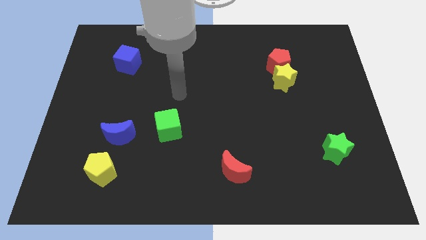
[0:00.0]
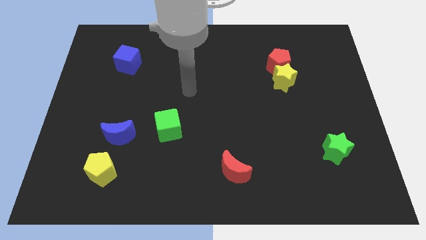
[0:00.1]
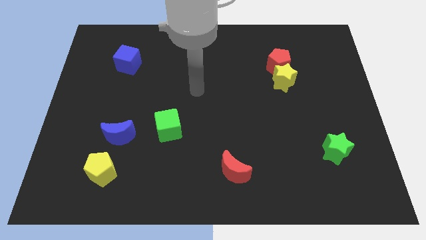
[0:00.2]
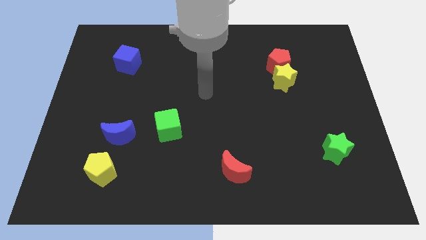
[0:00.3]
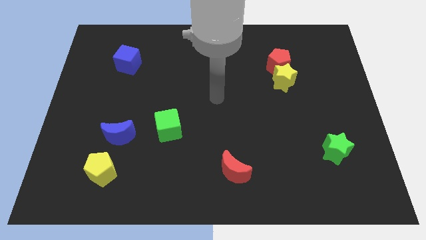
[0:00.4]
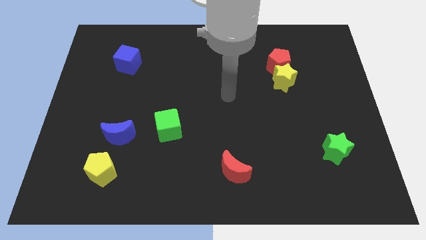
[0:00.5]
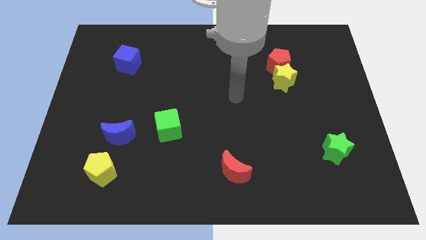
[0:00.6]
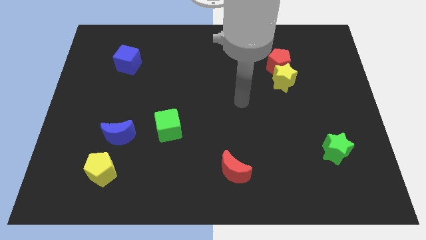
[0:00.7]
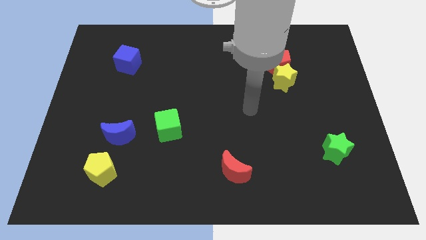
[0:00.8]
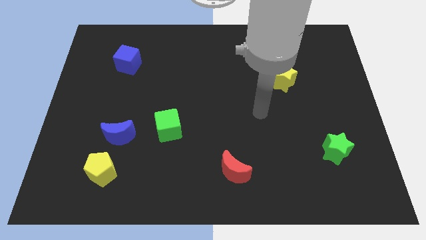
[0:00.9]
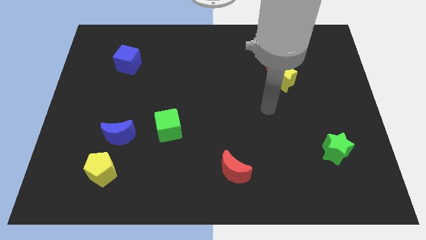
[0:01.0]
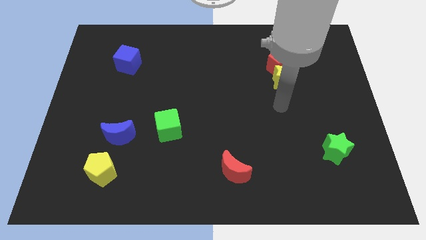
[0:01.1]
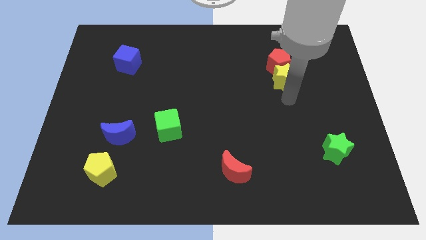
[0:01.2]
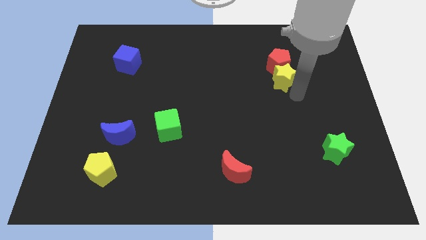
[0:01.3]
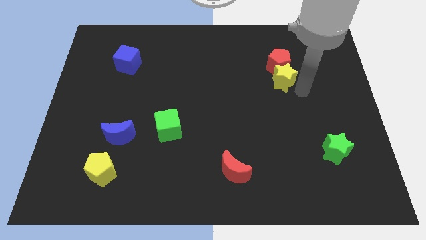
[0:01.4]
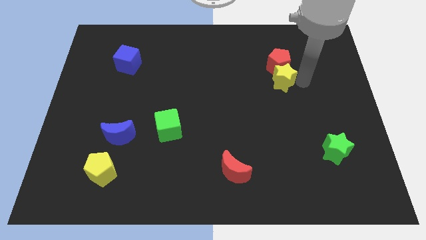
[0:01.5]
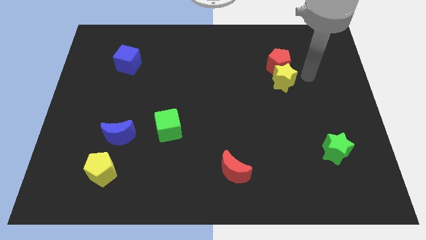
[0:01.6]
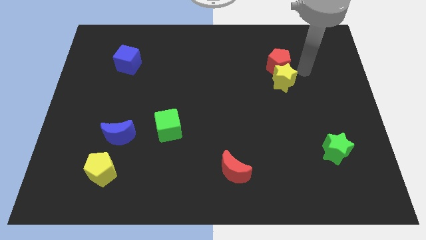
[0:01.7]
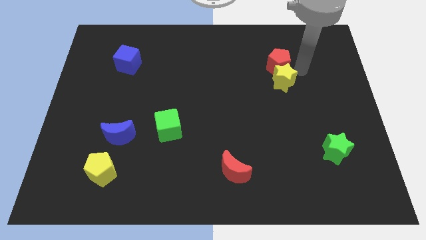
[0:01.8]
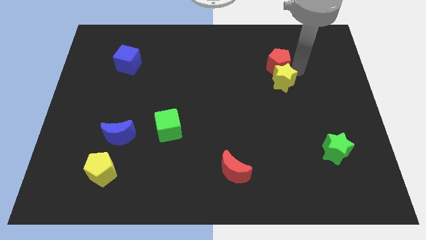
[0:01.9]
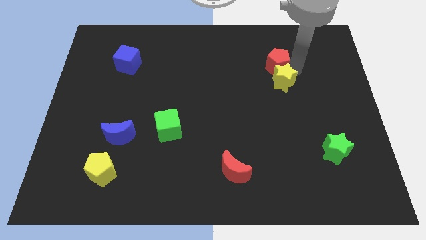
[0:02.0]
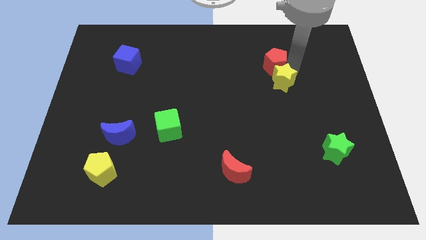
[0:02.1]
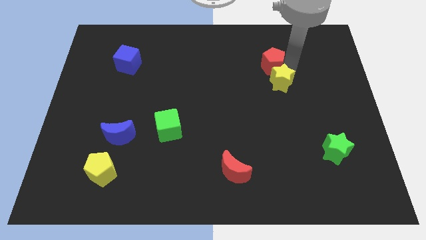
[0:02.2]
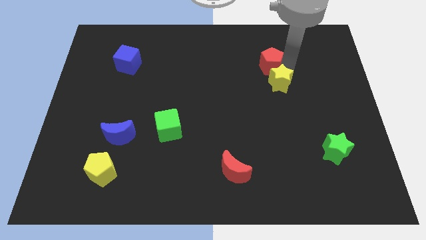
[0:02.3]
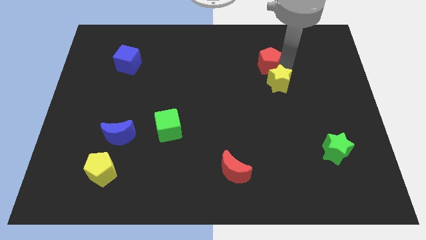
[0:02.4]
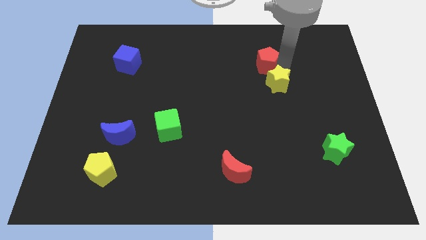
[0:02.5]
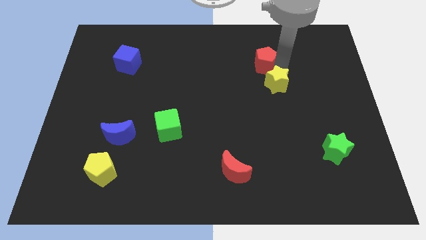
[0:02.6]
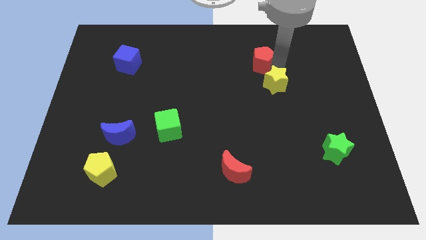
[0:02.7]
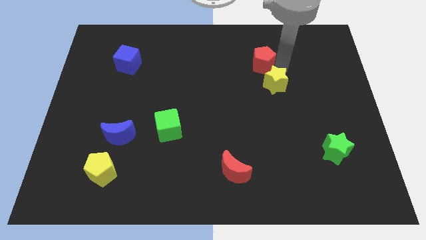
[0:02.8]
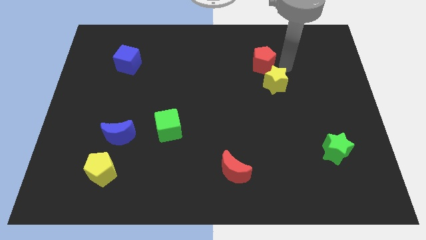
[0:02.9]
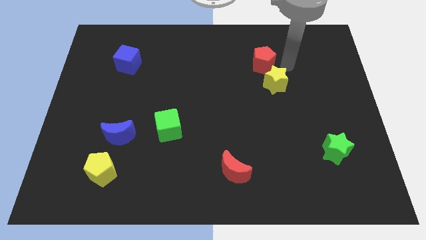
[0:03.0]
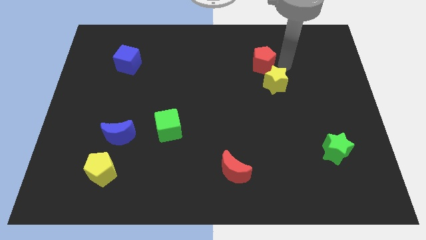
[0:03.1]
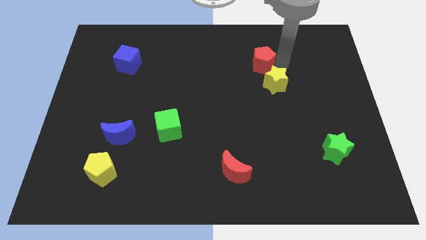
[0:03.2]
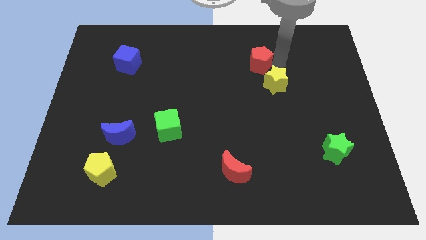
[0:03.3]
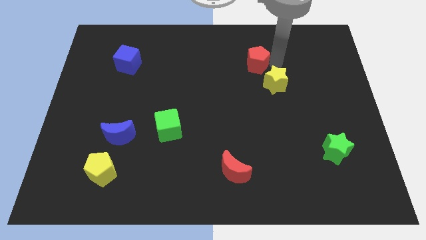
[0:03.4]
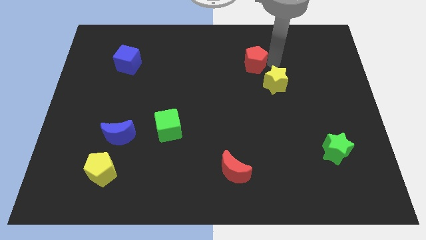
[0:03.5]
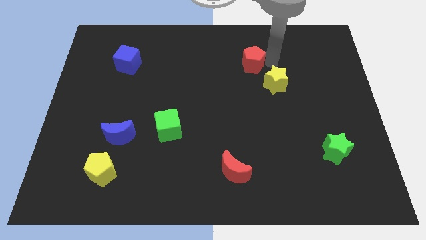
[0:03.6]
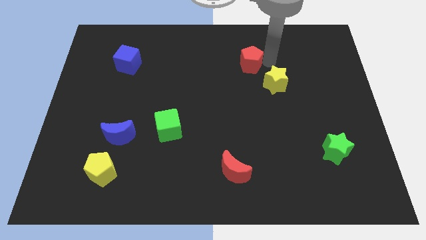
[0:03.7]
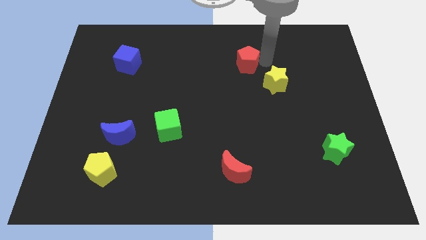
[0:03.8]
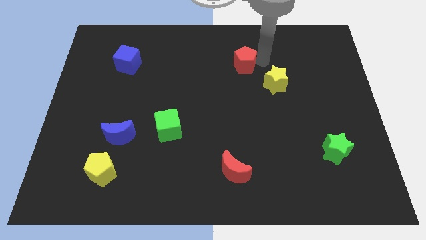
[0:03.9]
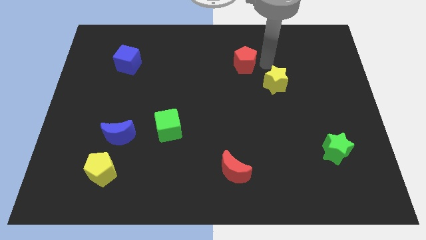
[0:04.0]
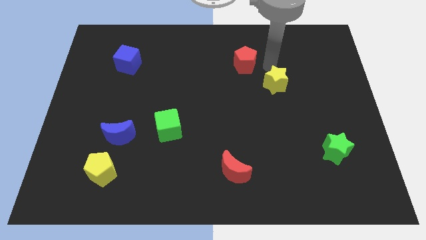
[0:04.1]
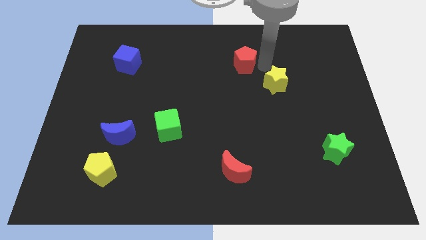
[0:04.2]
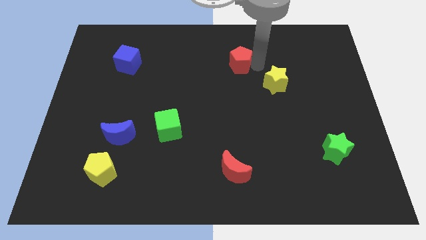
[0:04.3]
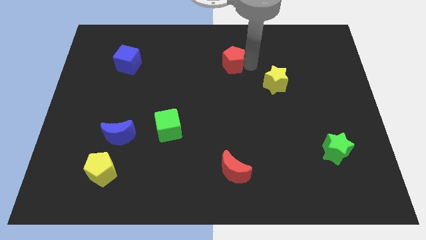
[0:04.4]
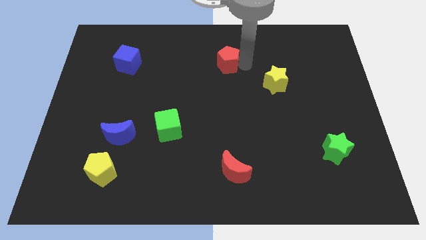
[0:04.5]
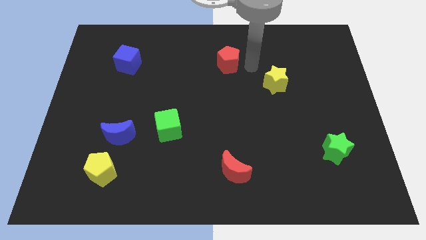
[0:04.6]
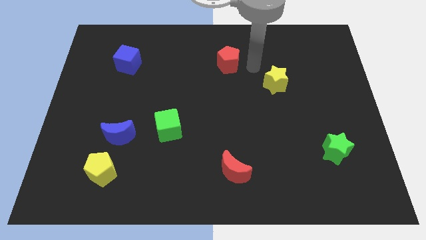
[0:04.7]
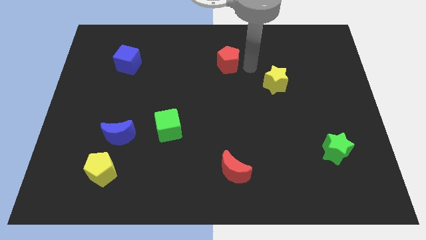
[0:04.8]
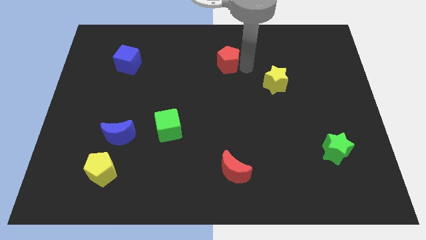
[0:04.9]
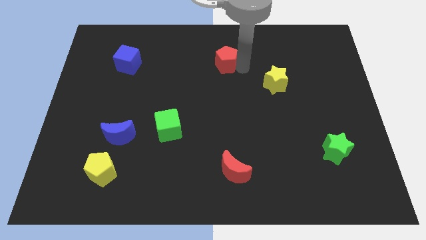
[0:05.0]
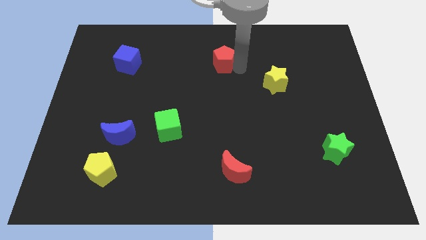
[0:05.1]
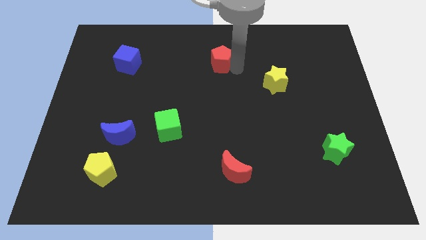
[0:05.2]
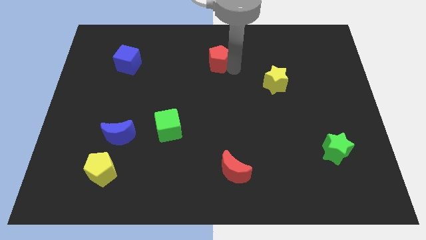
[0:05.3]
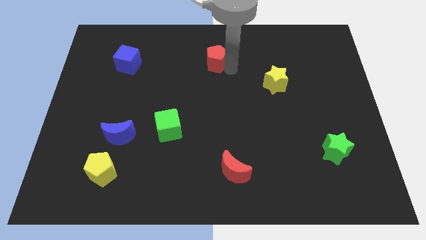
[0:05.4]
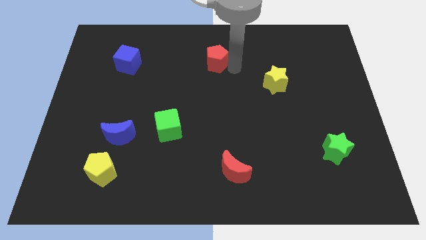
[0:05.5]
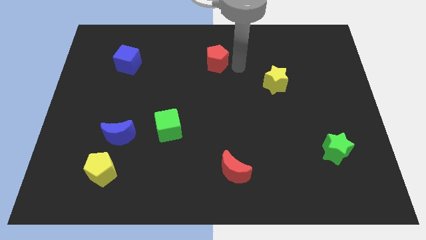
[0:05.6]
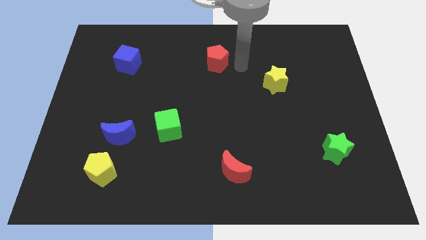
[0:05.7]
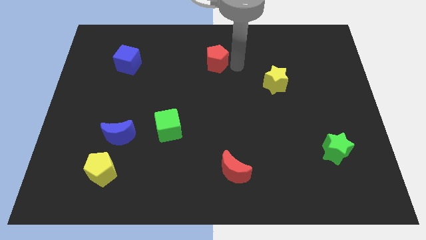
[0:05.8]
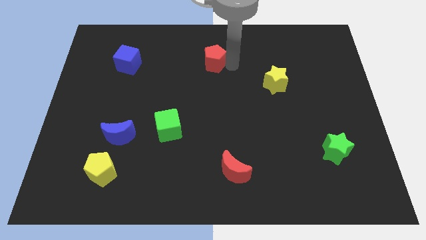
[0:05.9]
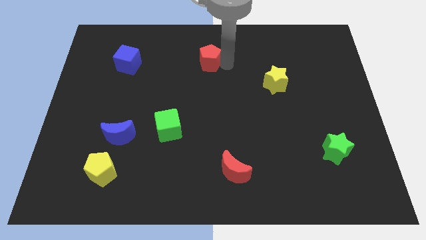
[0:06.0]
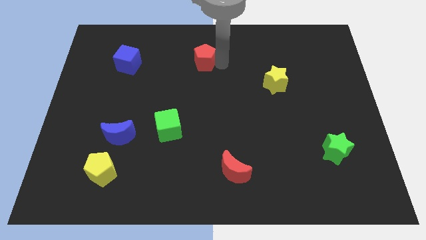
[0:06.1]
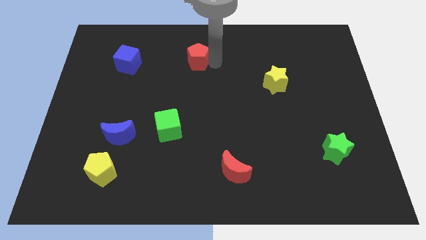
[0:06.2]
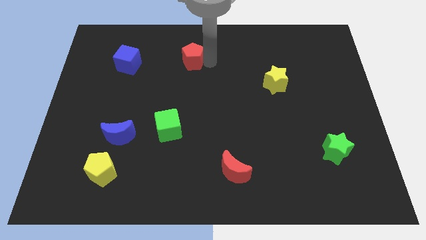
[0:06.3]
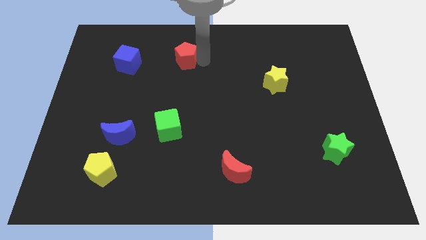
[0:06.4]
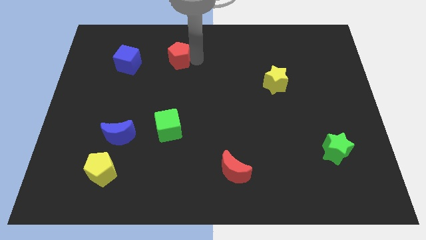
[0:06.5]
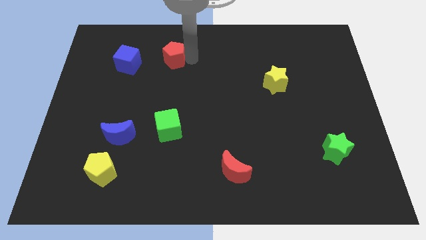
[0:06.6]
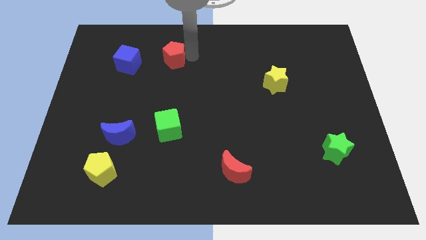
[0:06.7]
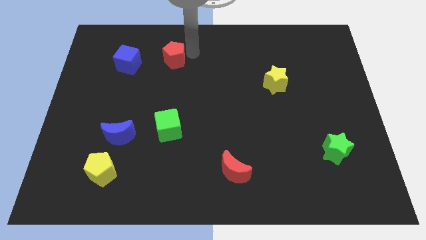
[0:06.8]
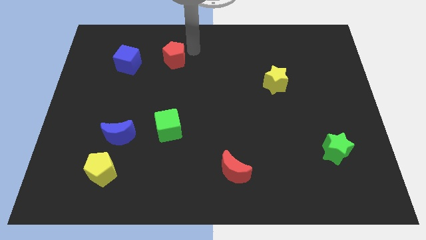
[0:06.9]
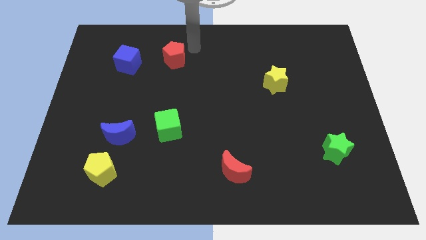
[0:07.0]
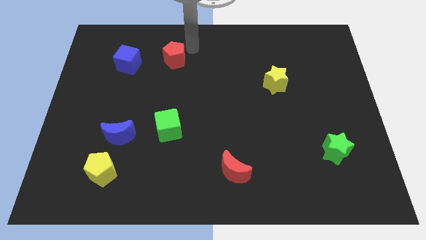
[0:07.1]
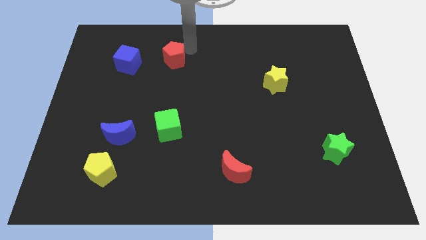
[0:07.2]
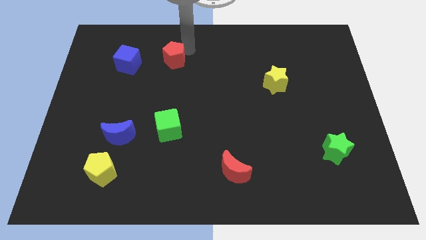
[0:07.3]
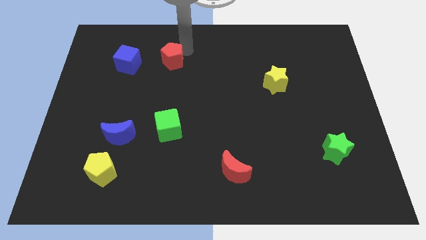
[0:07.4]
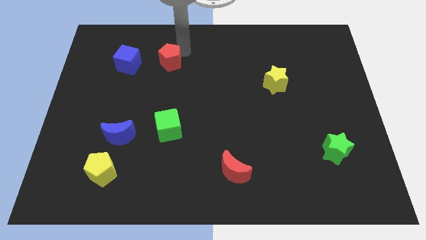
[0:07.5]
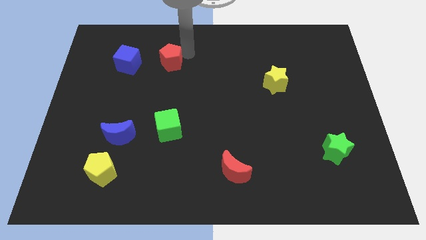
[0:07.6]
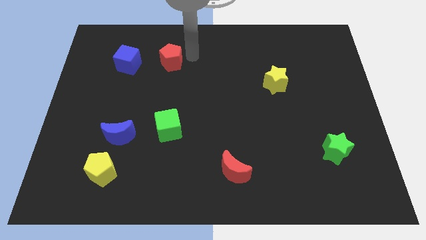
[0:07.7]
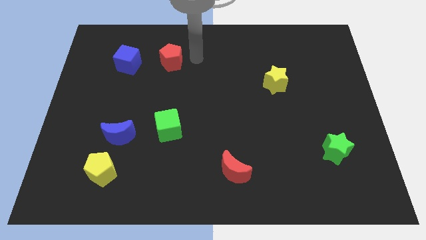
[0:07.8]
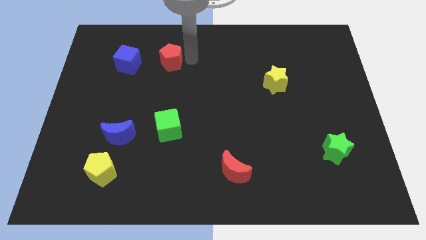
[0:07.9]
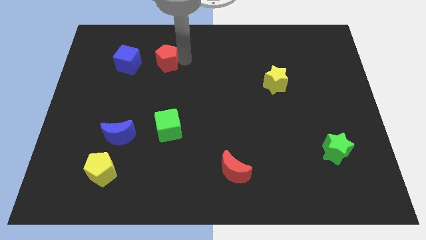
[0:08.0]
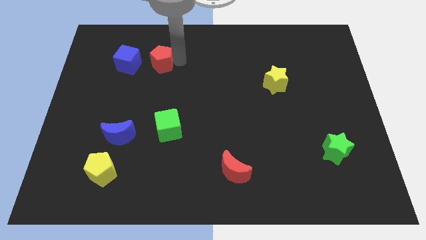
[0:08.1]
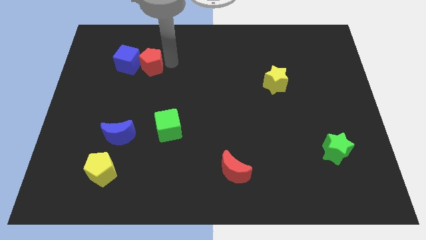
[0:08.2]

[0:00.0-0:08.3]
push the red pentagon next to the blue cube
